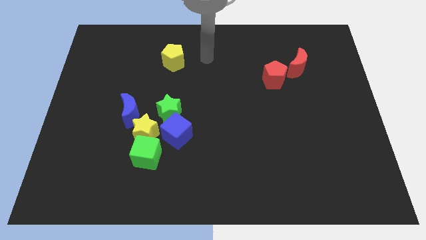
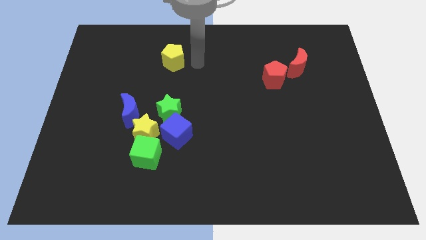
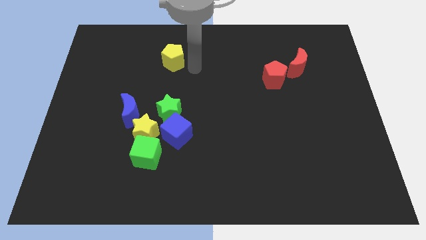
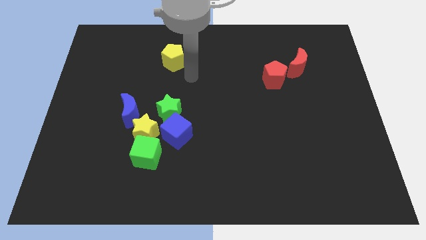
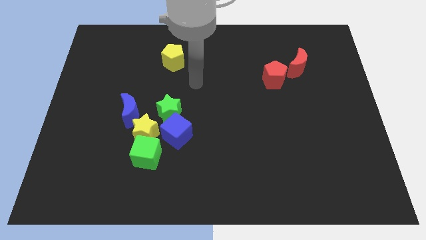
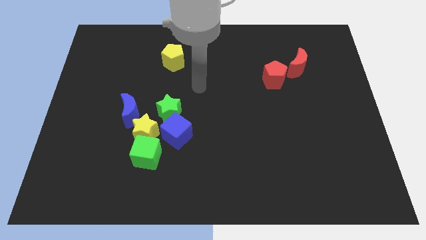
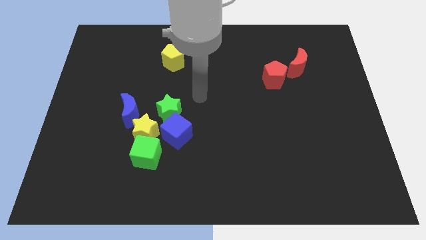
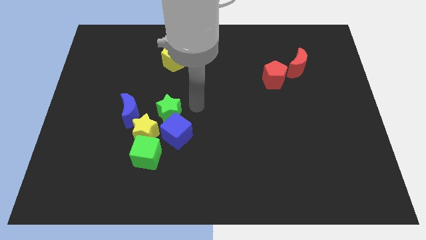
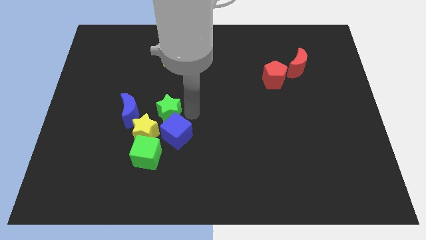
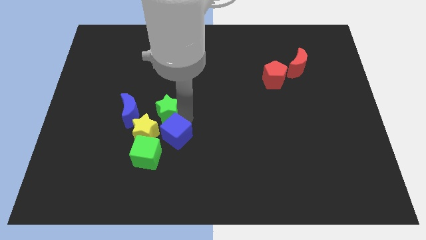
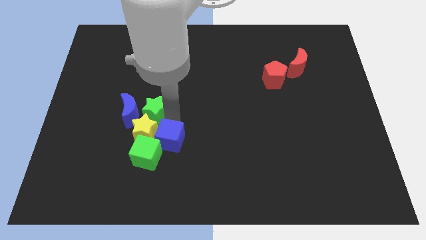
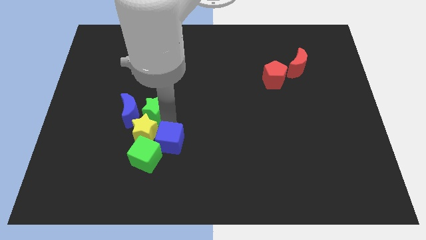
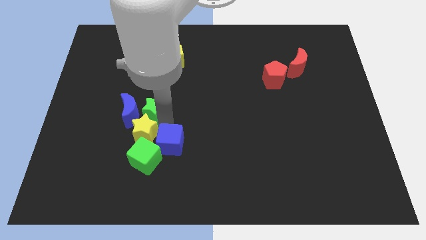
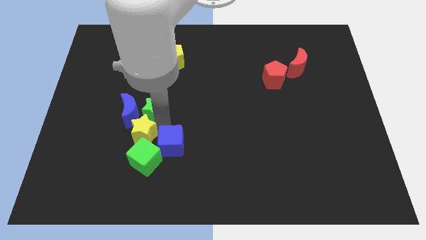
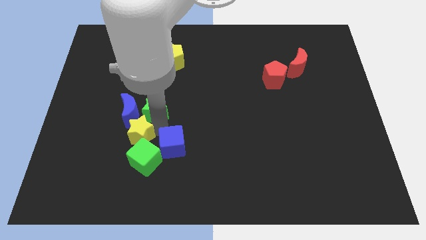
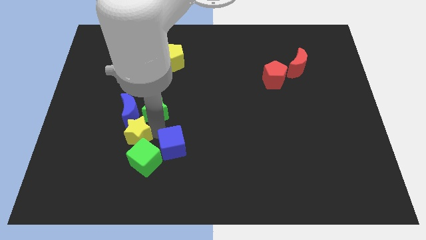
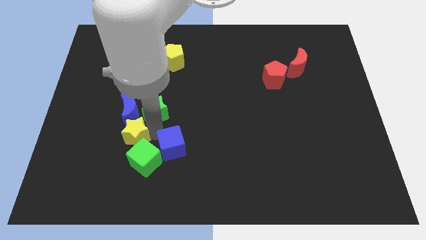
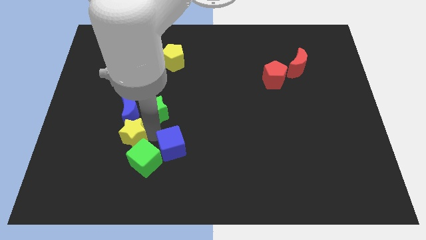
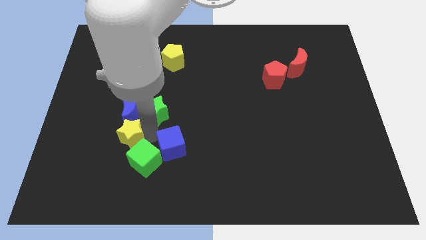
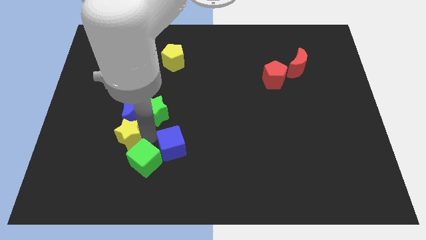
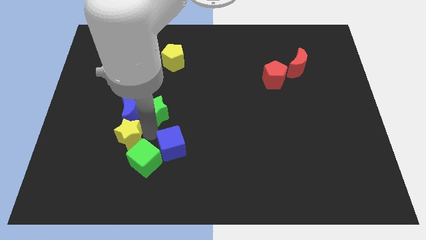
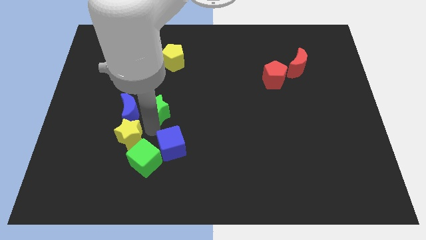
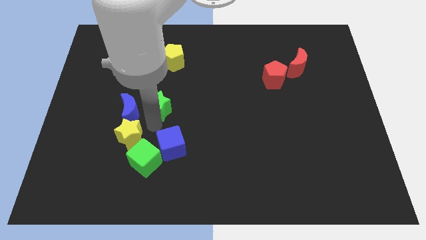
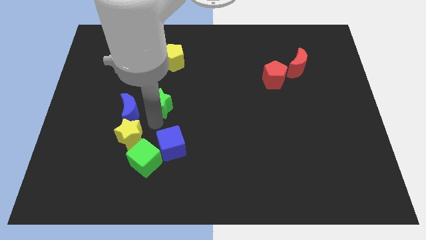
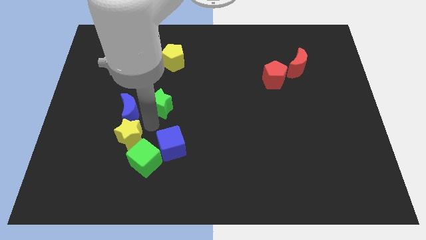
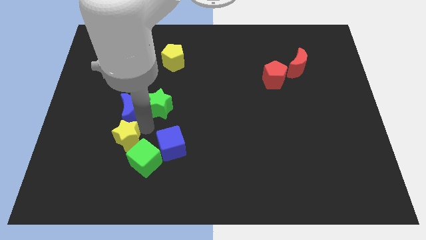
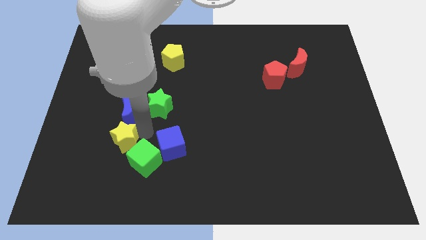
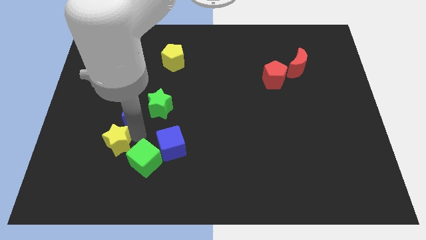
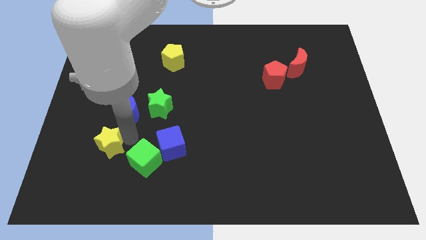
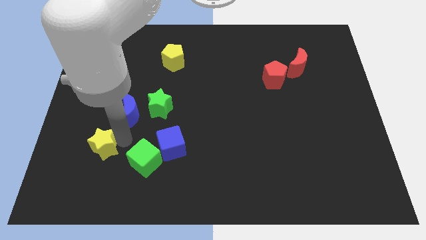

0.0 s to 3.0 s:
move the yellow star away from the clump

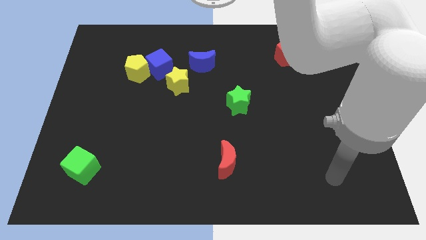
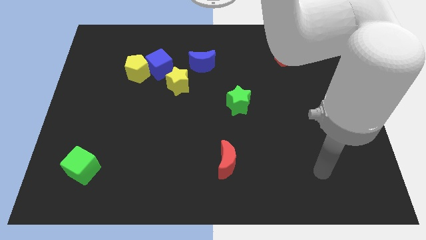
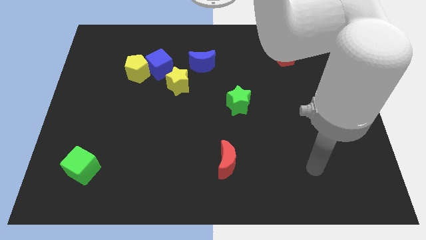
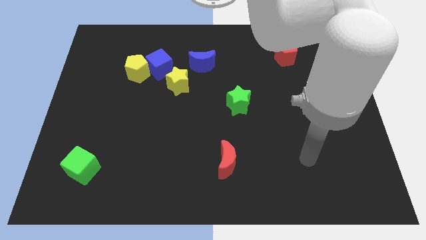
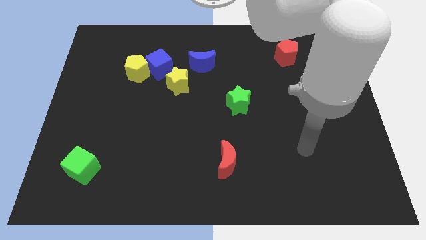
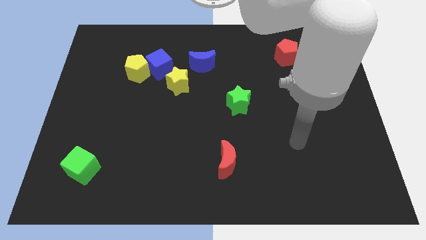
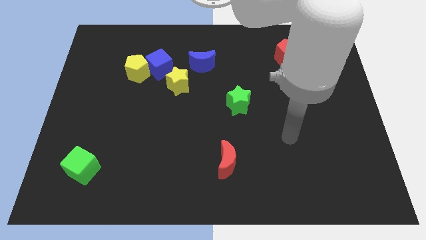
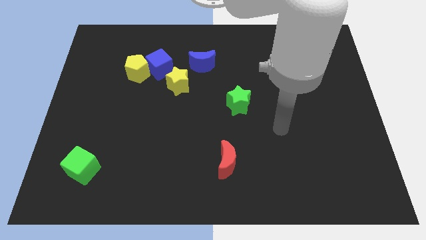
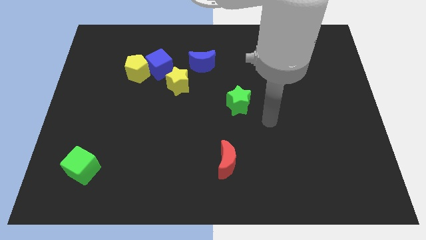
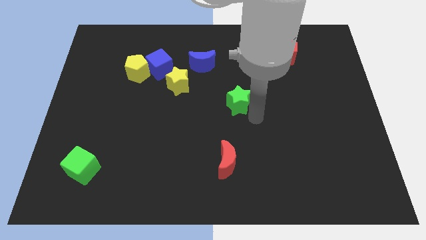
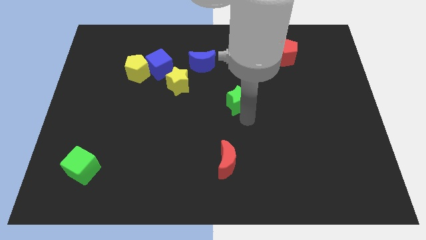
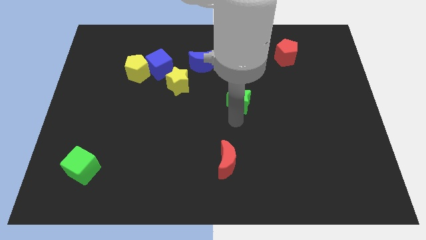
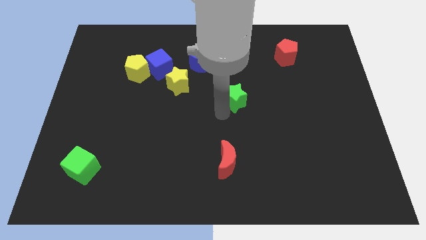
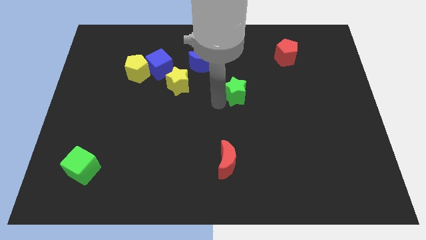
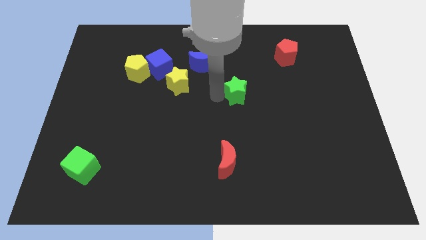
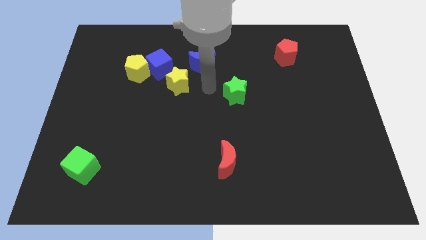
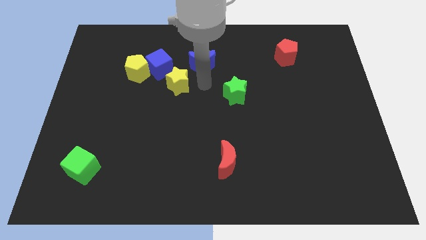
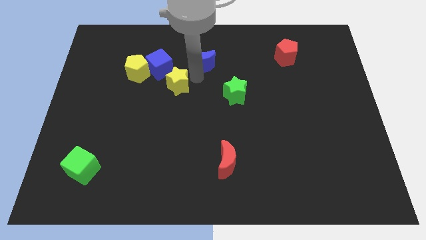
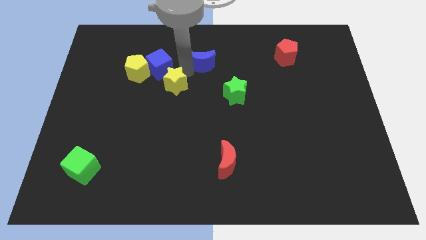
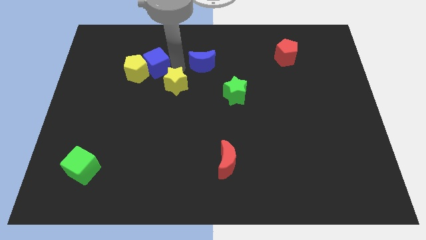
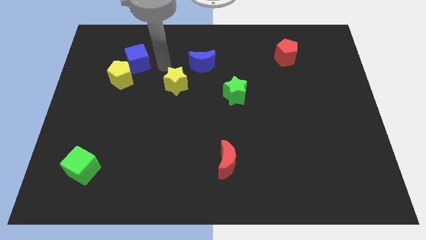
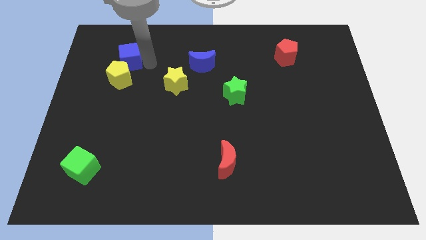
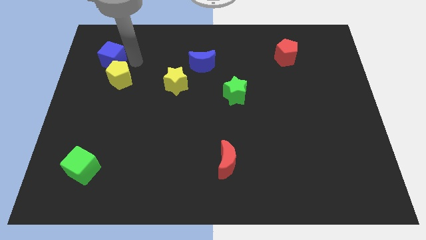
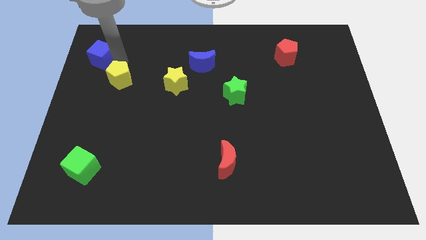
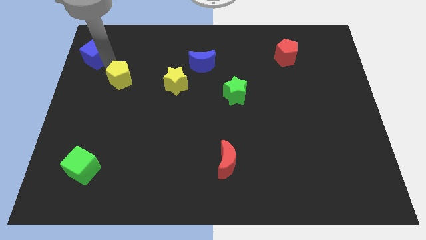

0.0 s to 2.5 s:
pull the yellow pentagon apart from the blue cube

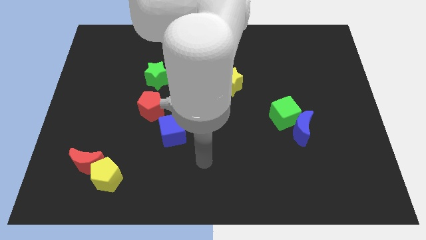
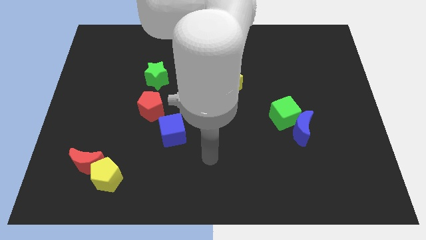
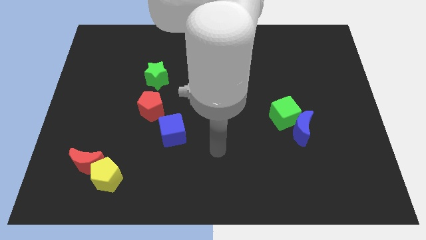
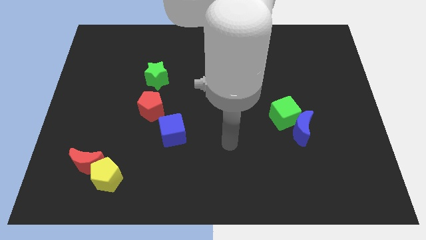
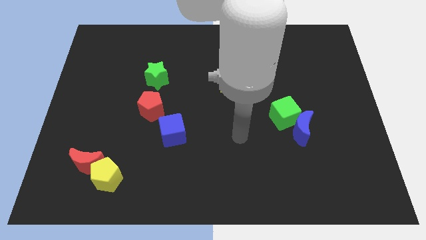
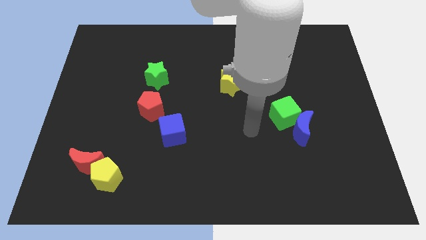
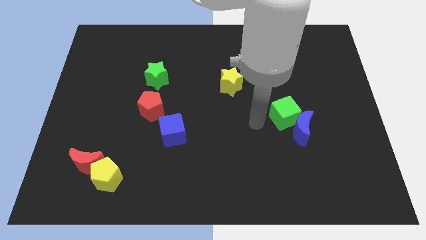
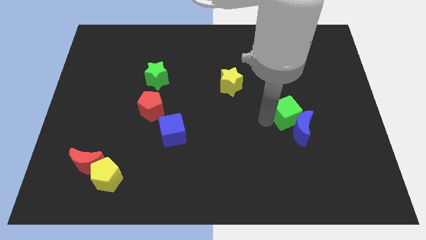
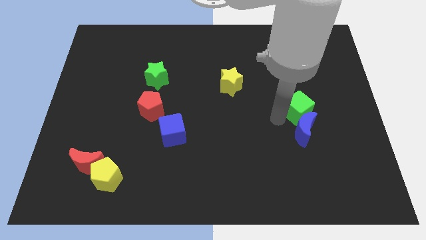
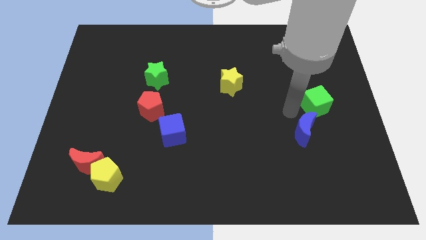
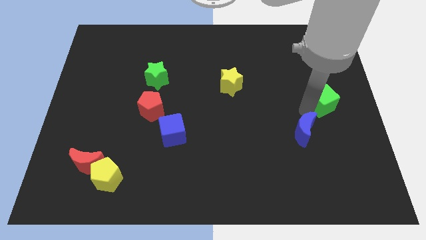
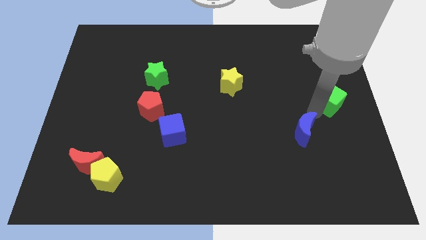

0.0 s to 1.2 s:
move the blue moon away from the green cube

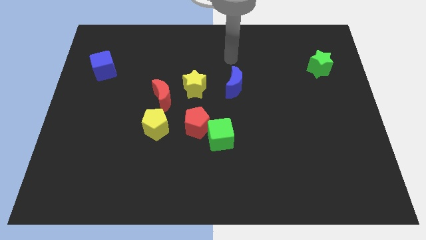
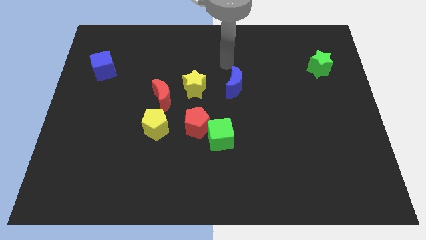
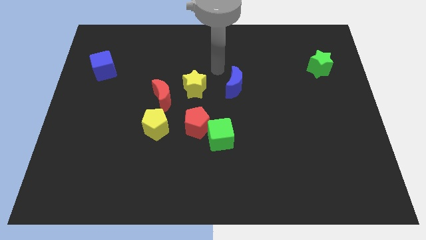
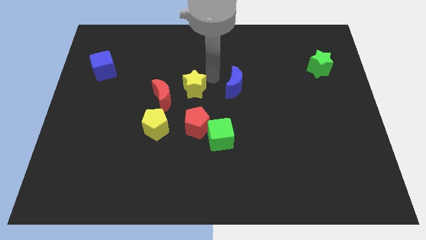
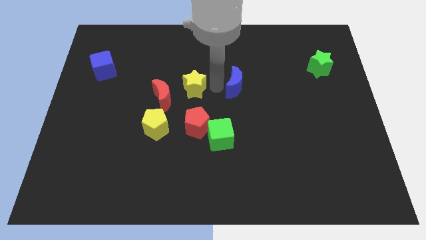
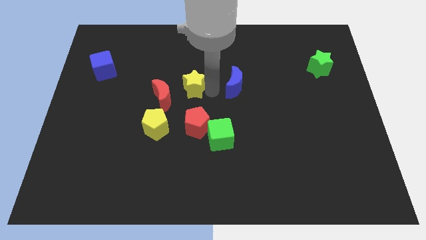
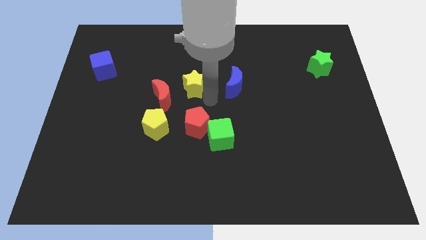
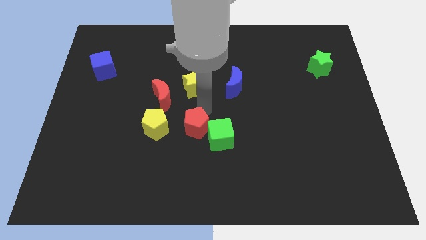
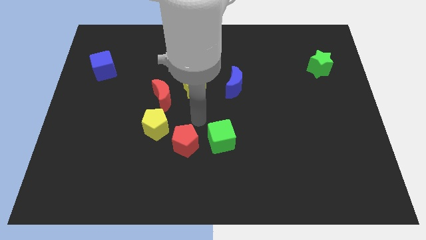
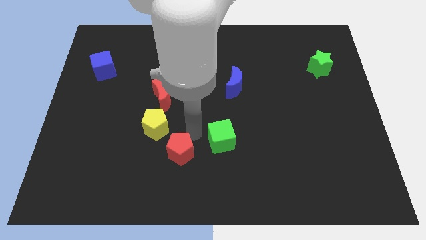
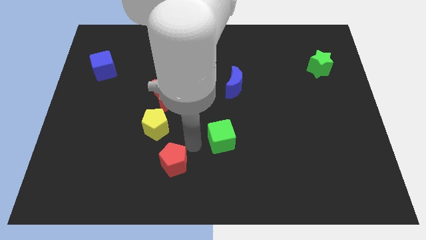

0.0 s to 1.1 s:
pull the green cube apart from the red pentagon

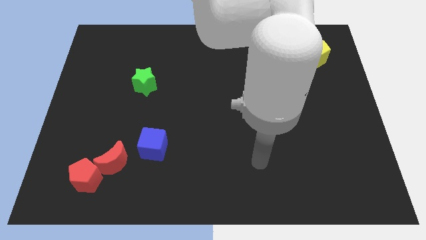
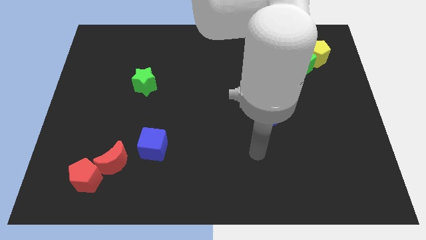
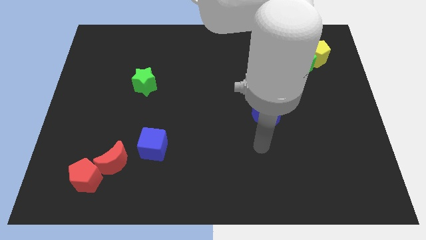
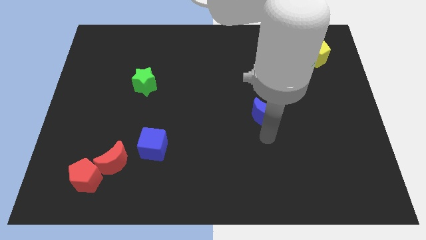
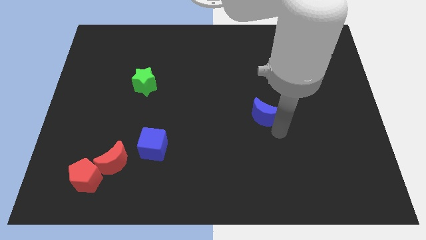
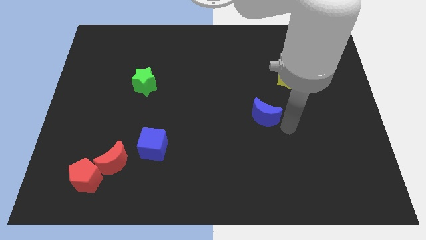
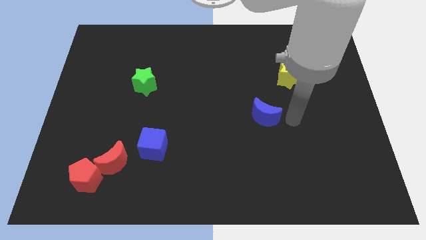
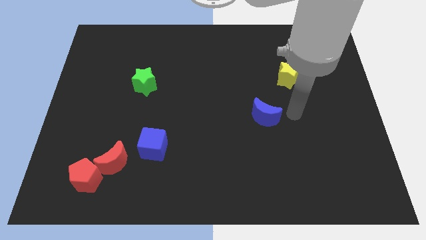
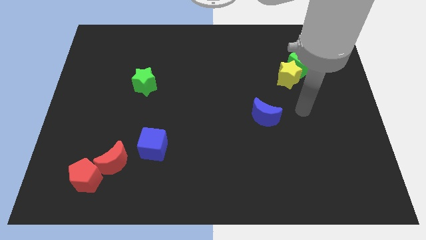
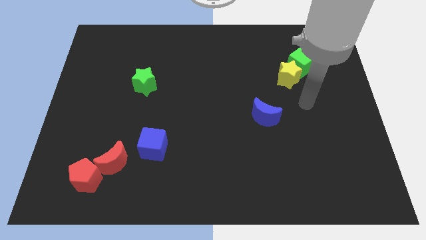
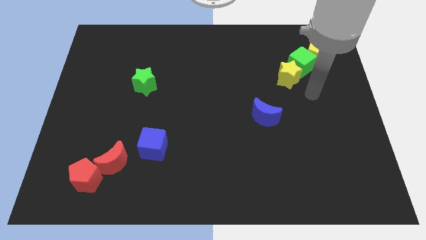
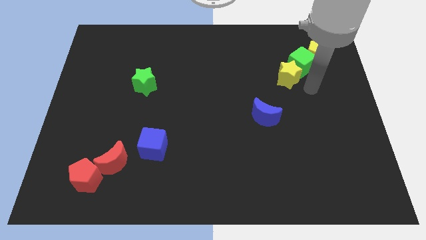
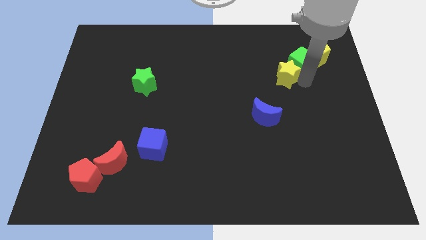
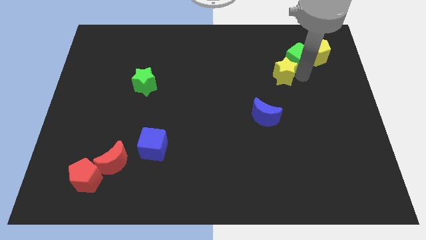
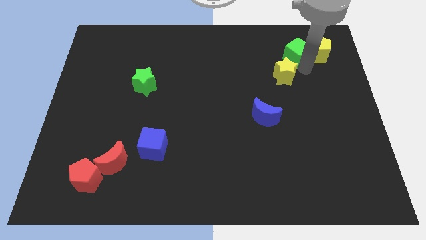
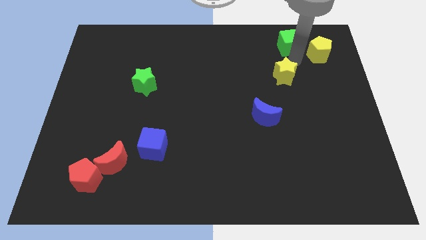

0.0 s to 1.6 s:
move the yellow star away from the green cube

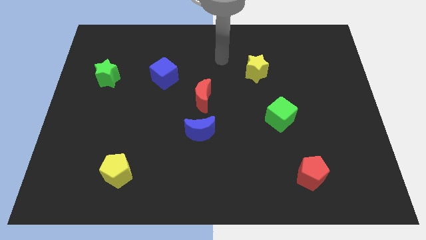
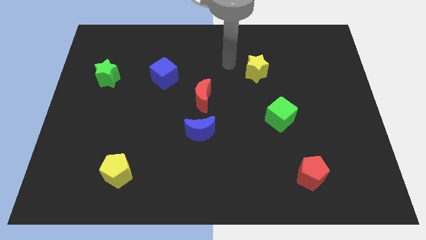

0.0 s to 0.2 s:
separate the red moon from the blue moon
